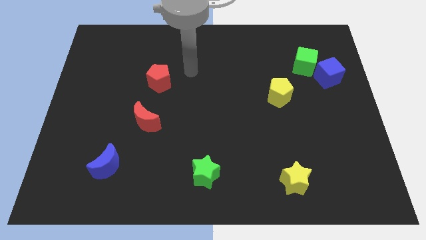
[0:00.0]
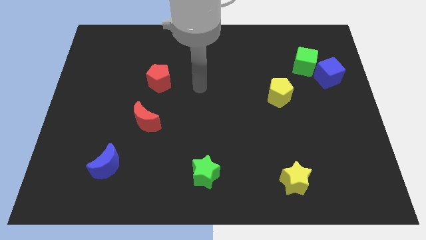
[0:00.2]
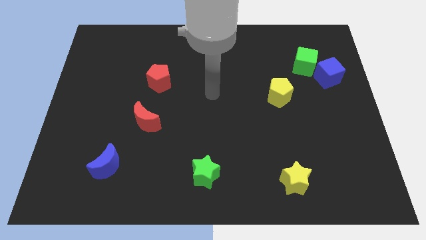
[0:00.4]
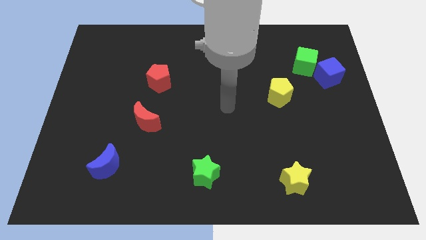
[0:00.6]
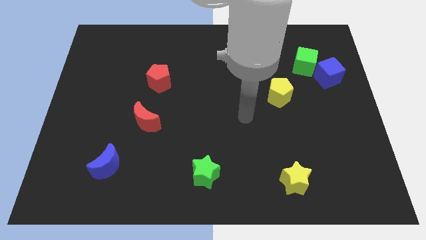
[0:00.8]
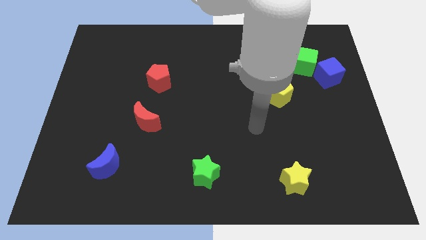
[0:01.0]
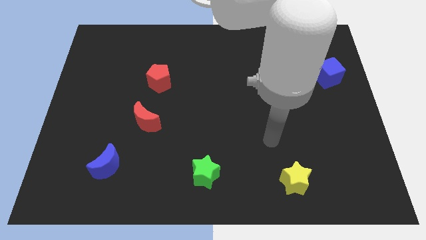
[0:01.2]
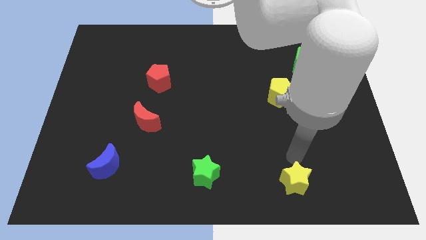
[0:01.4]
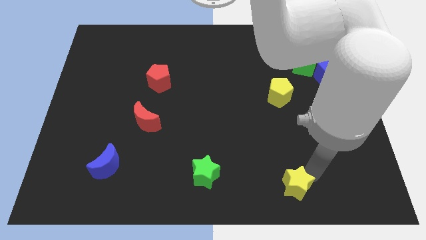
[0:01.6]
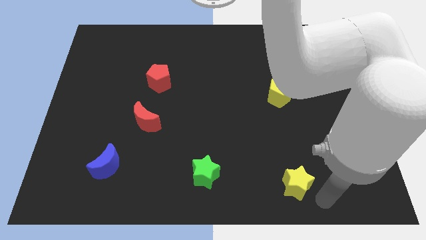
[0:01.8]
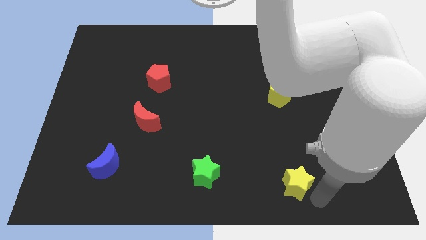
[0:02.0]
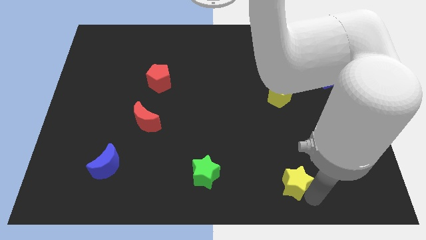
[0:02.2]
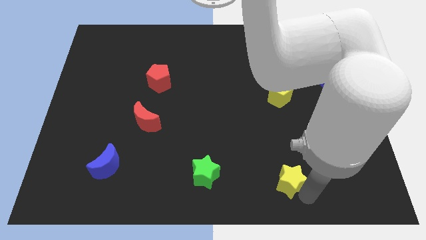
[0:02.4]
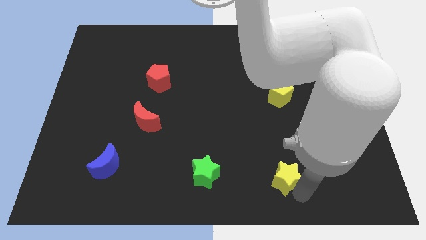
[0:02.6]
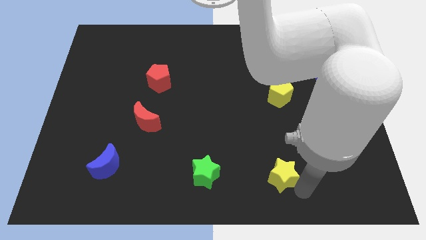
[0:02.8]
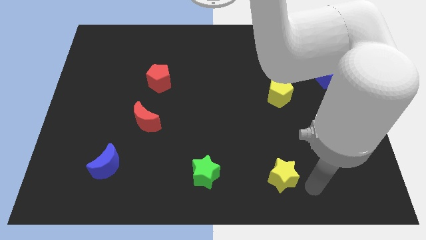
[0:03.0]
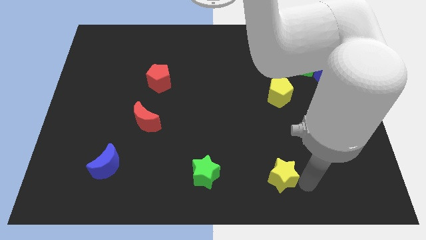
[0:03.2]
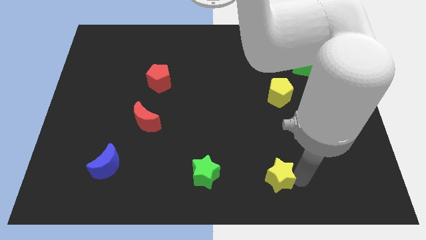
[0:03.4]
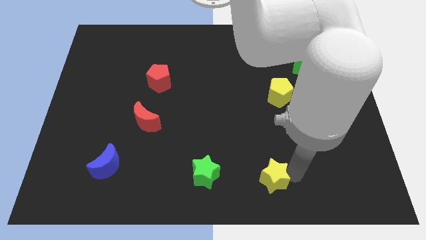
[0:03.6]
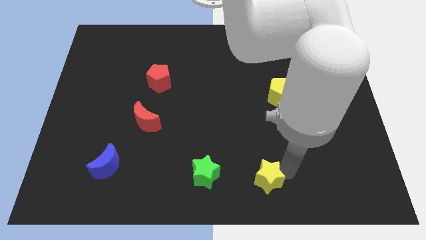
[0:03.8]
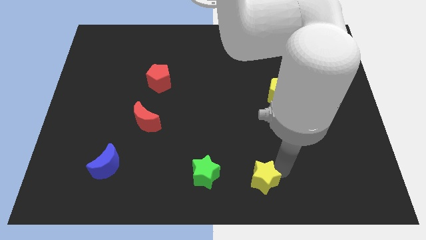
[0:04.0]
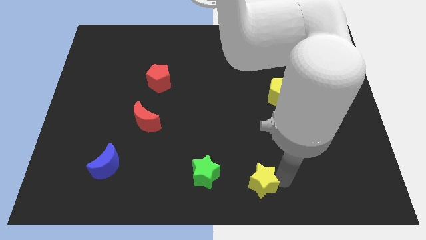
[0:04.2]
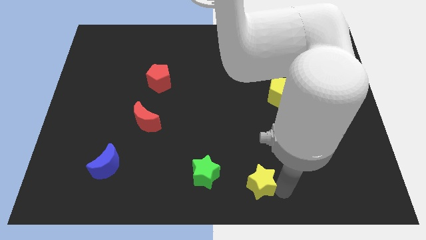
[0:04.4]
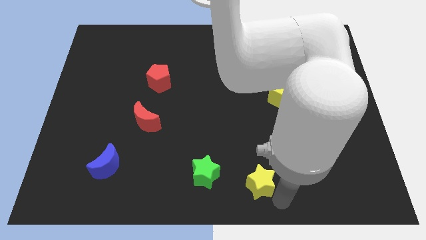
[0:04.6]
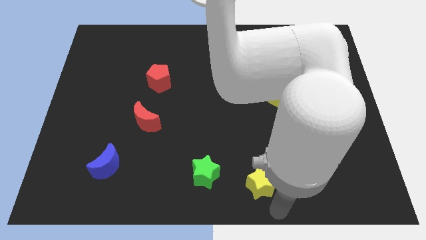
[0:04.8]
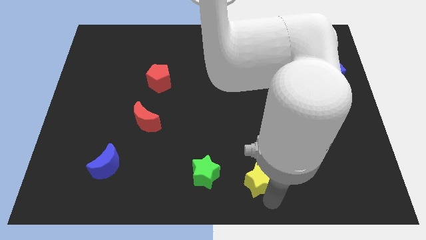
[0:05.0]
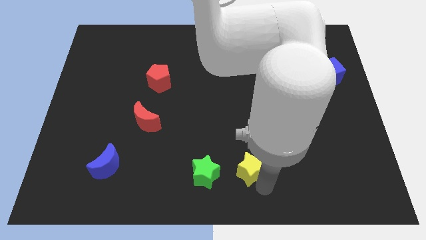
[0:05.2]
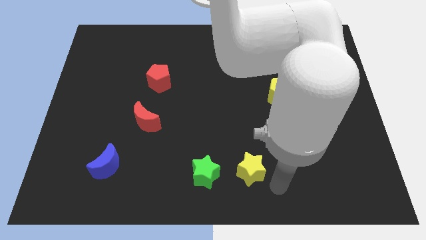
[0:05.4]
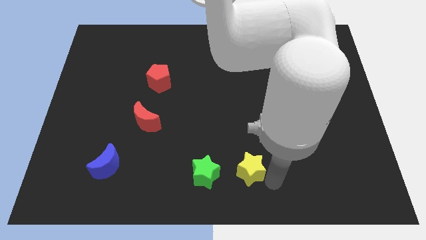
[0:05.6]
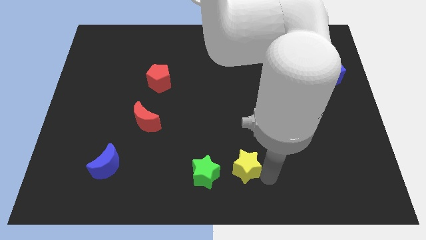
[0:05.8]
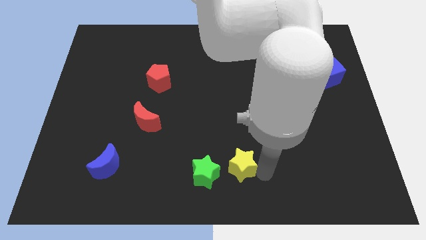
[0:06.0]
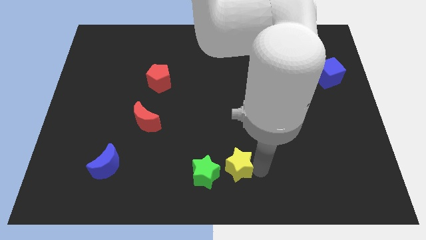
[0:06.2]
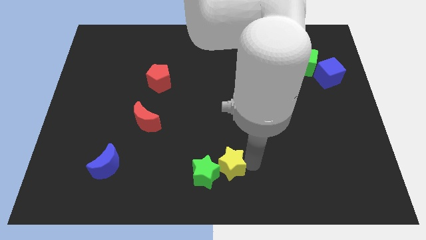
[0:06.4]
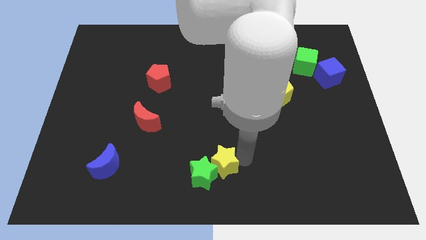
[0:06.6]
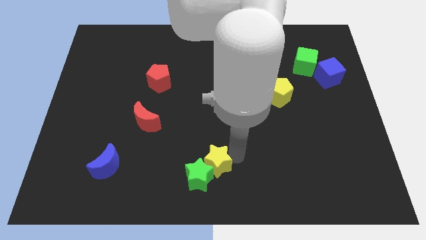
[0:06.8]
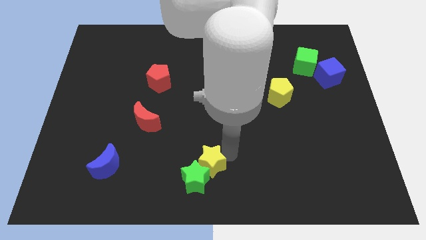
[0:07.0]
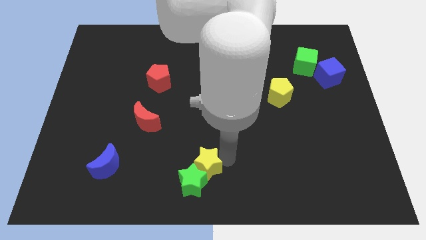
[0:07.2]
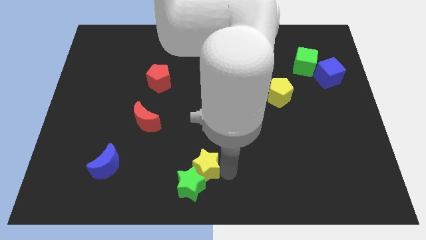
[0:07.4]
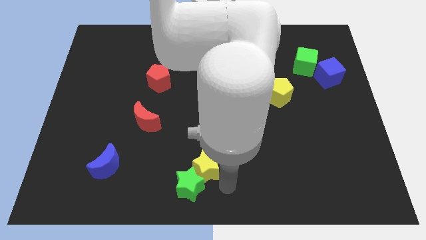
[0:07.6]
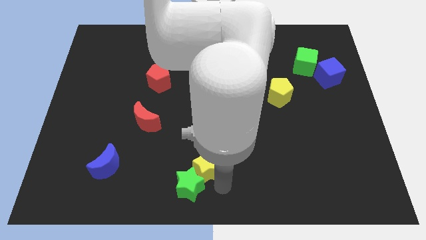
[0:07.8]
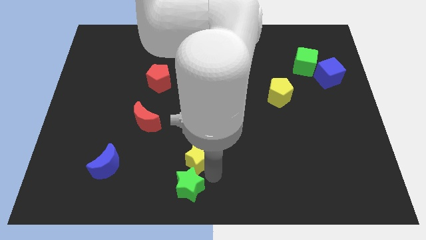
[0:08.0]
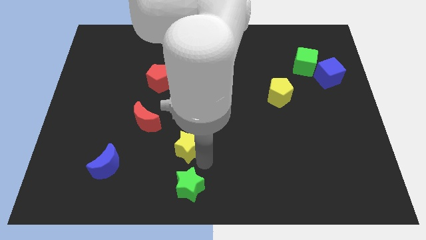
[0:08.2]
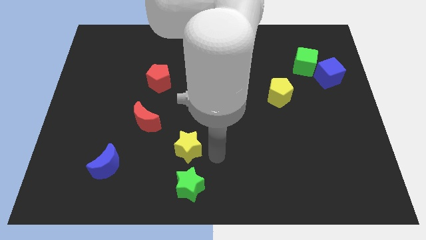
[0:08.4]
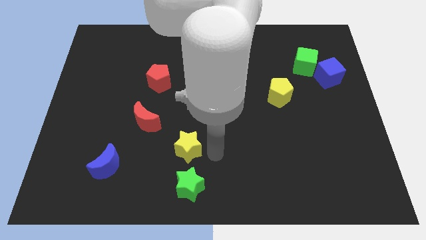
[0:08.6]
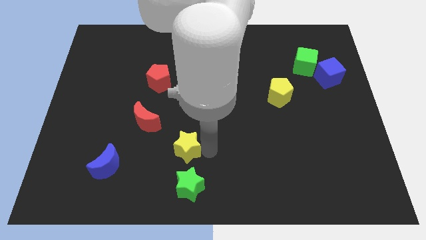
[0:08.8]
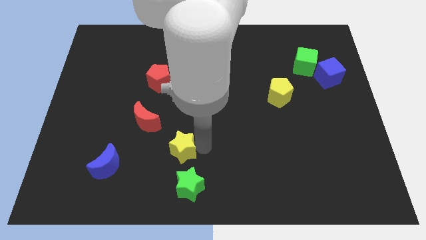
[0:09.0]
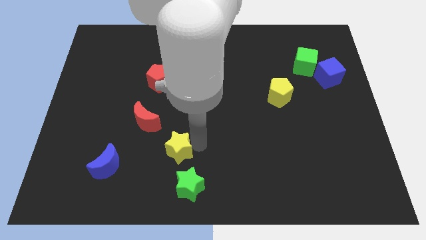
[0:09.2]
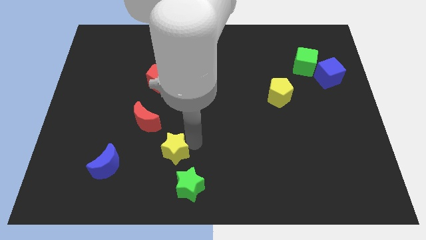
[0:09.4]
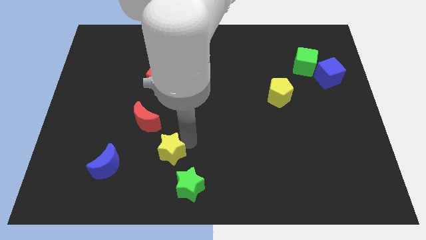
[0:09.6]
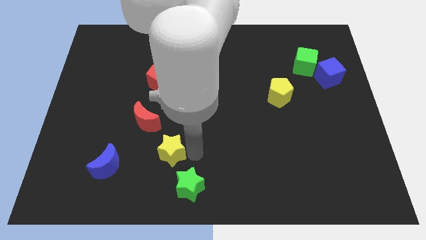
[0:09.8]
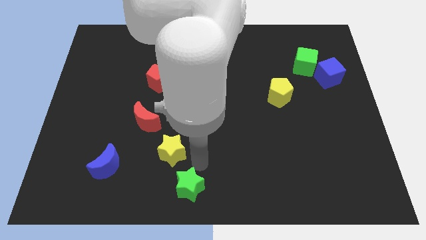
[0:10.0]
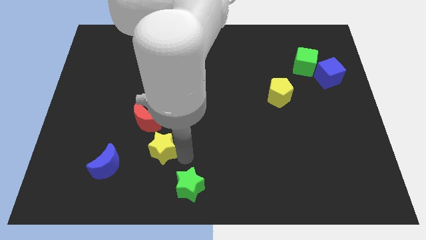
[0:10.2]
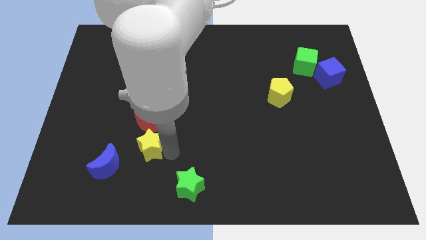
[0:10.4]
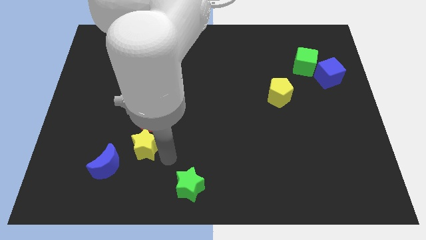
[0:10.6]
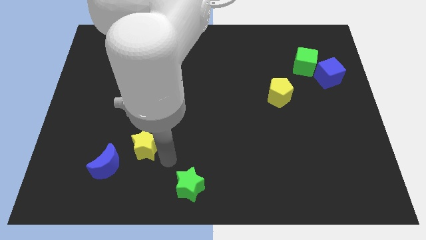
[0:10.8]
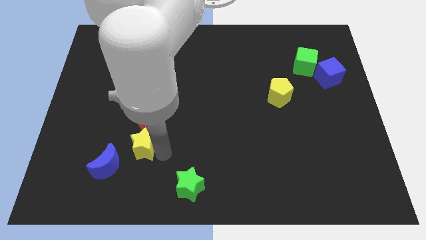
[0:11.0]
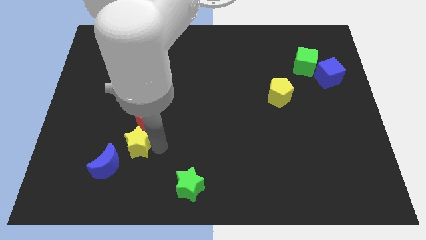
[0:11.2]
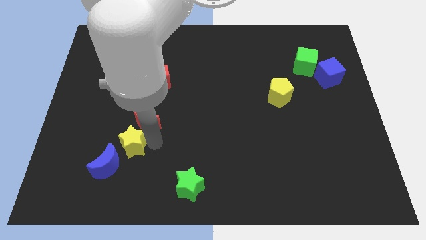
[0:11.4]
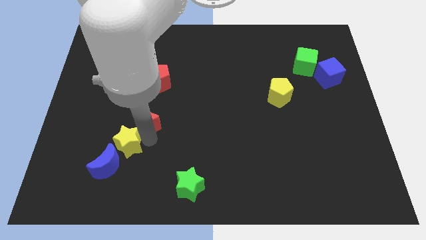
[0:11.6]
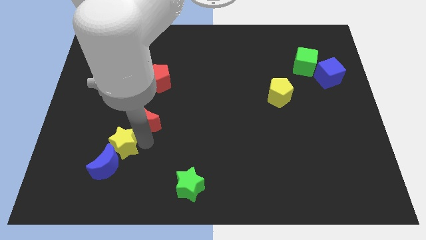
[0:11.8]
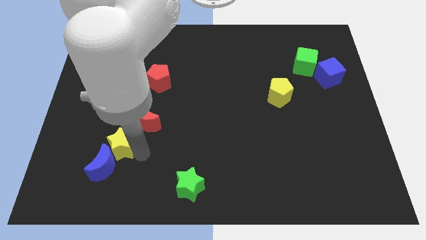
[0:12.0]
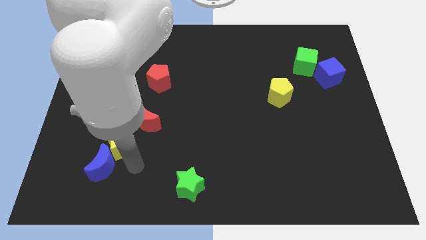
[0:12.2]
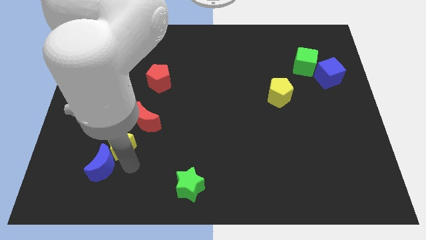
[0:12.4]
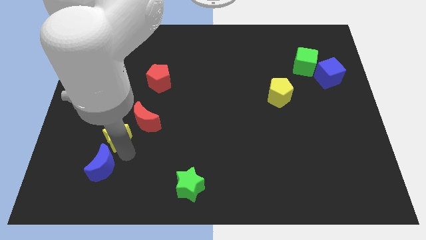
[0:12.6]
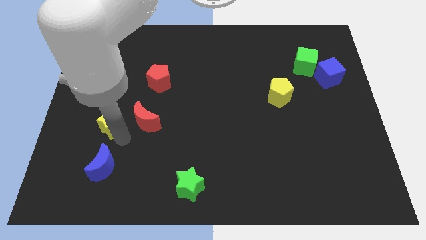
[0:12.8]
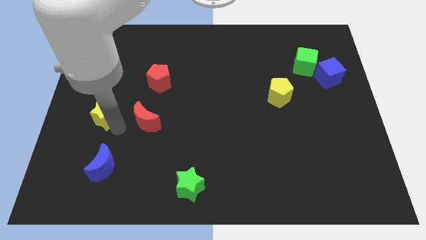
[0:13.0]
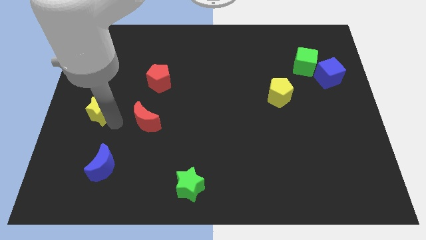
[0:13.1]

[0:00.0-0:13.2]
push the yellow star to the center left
